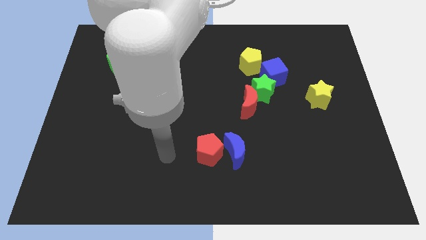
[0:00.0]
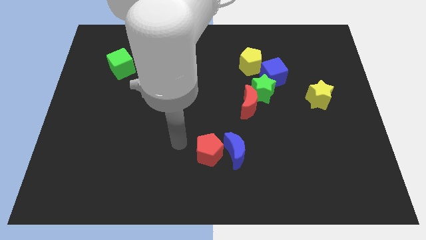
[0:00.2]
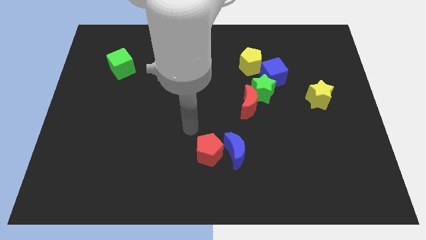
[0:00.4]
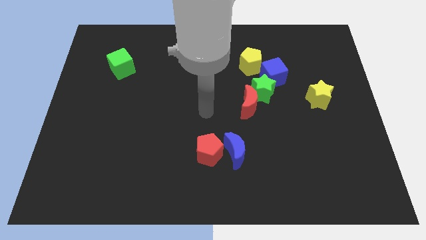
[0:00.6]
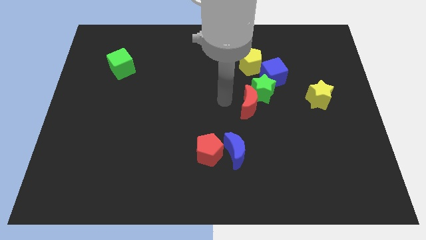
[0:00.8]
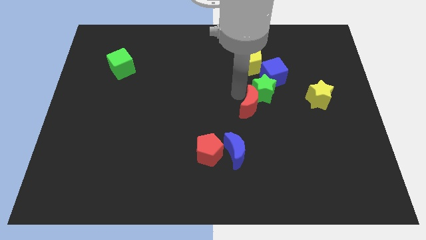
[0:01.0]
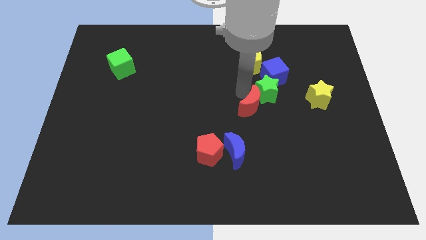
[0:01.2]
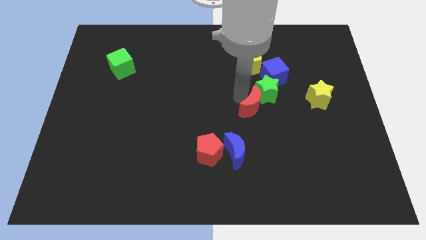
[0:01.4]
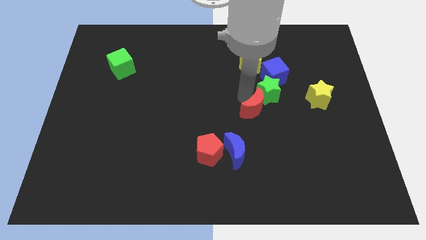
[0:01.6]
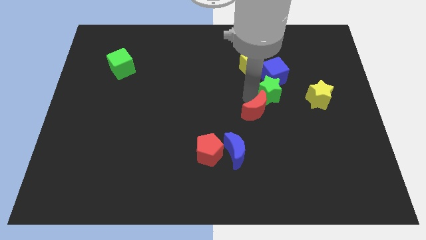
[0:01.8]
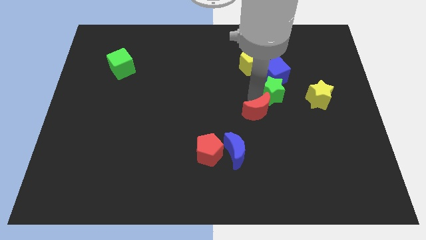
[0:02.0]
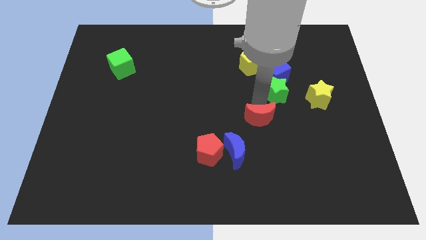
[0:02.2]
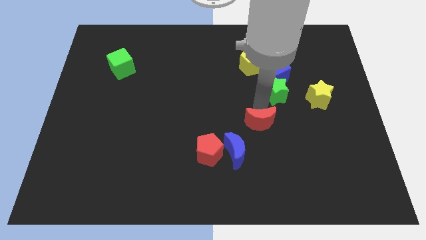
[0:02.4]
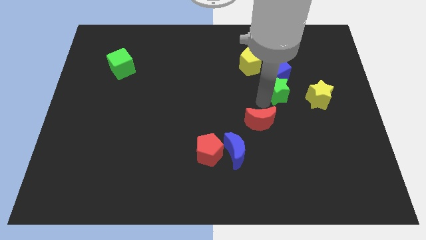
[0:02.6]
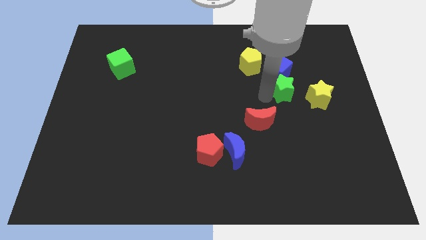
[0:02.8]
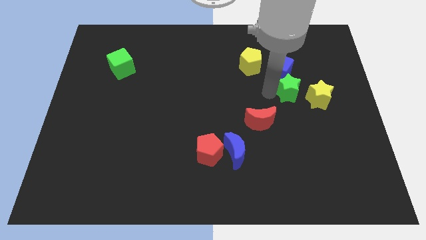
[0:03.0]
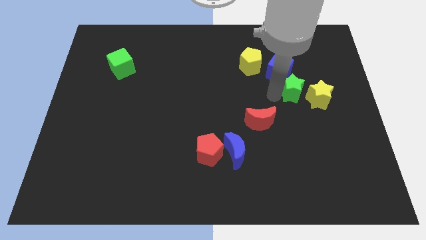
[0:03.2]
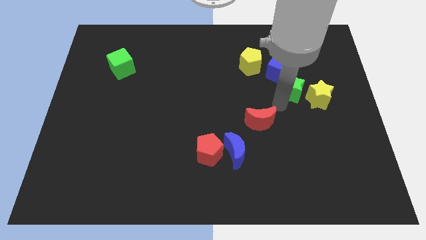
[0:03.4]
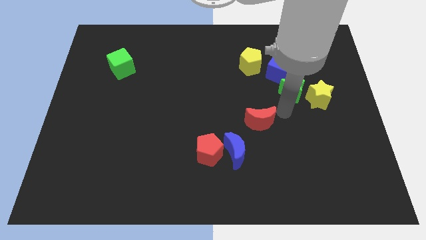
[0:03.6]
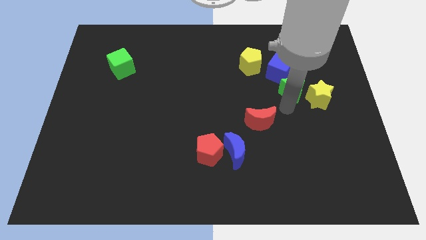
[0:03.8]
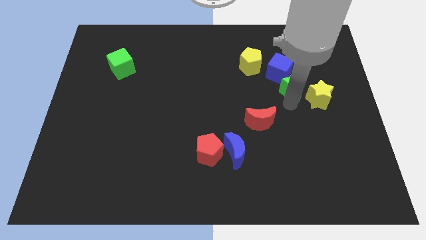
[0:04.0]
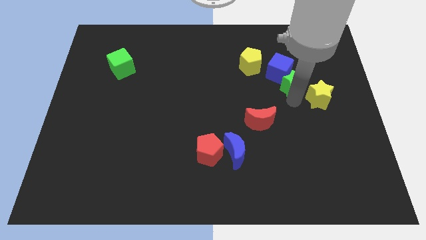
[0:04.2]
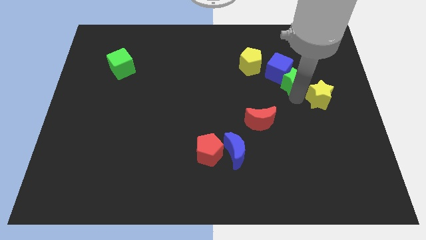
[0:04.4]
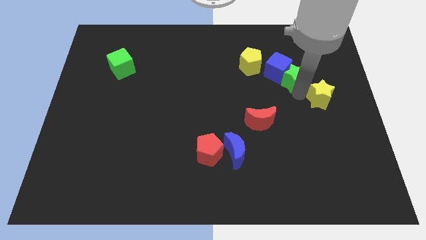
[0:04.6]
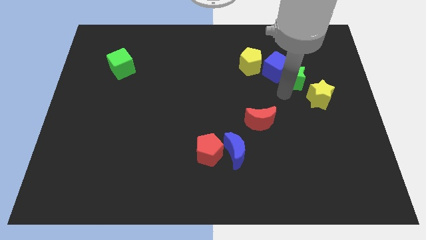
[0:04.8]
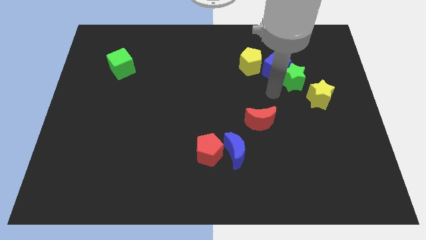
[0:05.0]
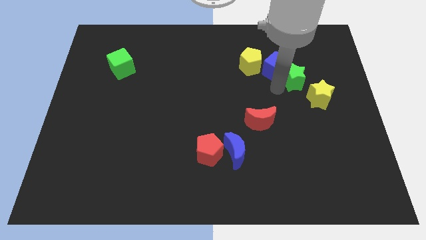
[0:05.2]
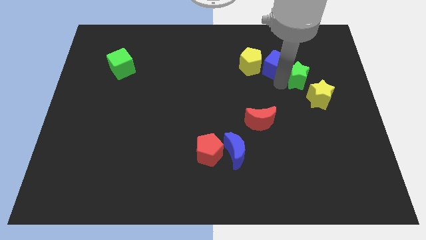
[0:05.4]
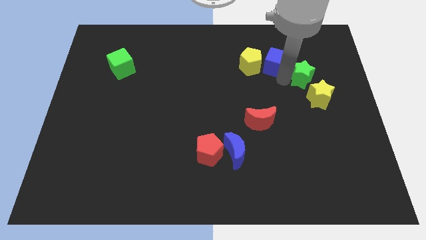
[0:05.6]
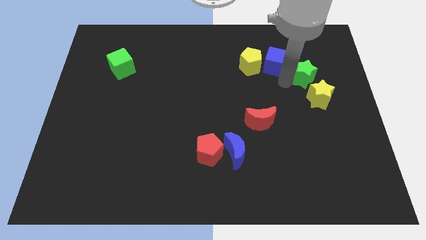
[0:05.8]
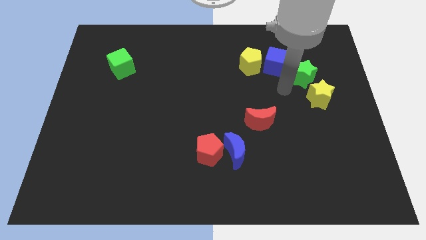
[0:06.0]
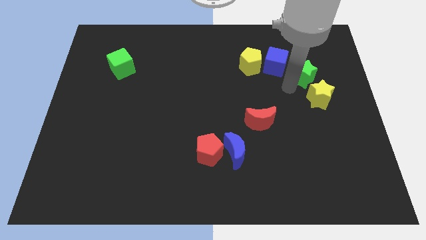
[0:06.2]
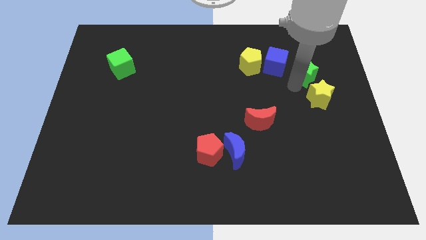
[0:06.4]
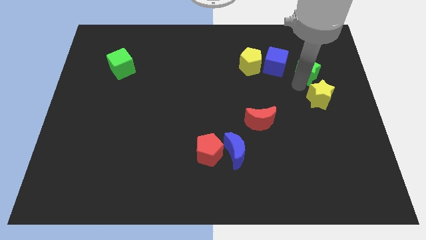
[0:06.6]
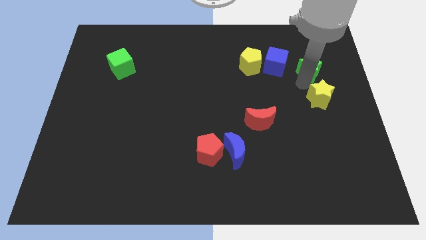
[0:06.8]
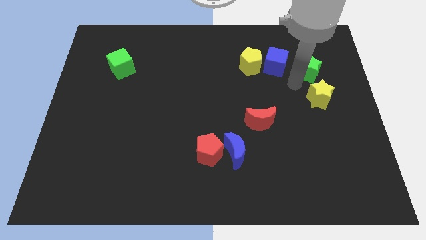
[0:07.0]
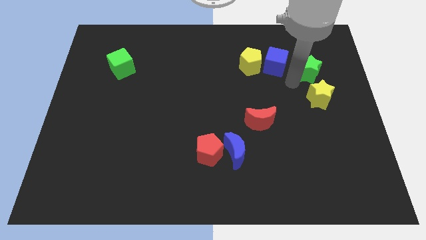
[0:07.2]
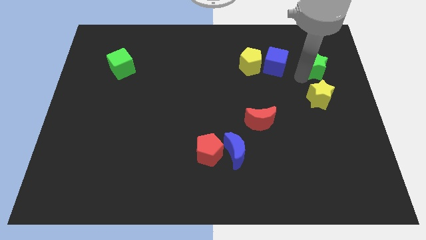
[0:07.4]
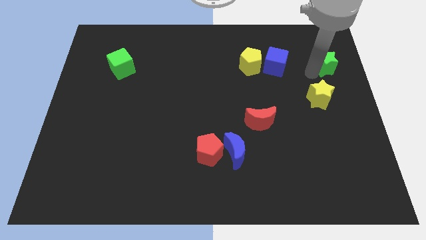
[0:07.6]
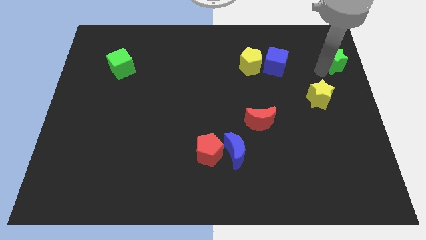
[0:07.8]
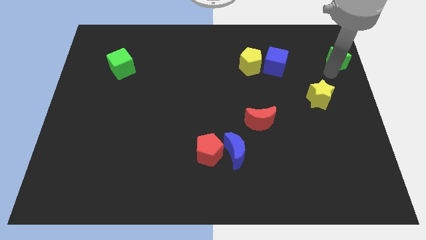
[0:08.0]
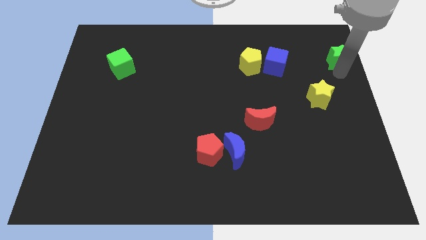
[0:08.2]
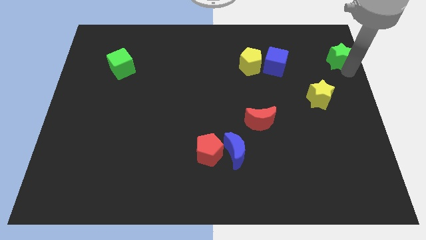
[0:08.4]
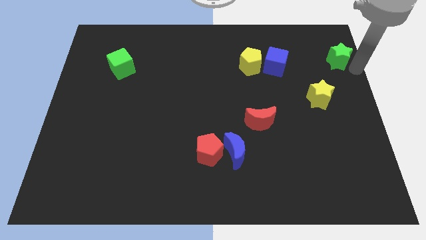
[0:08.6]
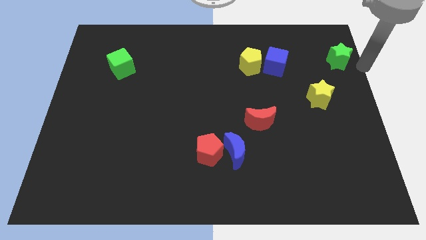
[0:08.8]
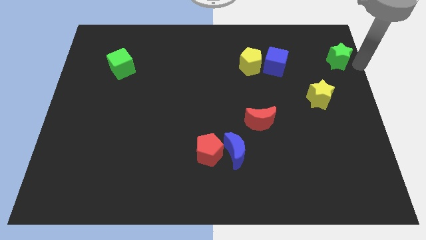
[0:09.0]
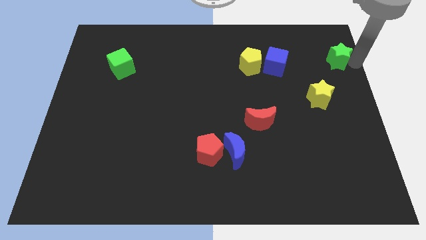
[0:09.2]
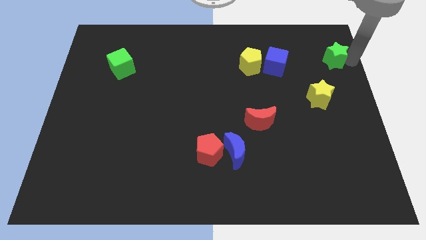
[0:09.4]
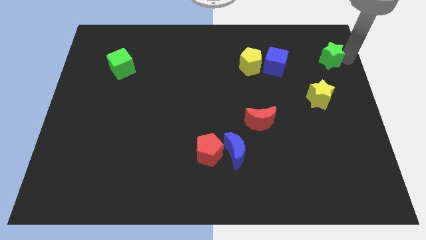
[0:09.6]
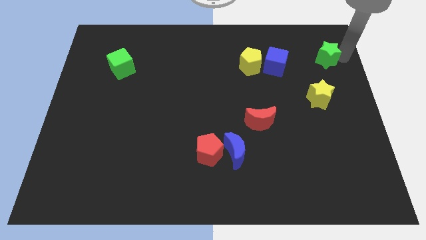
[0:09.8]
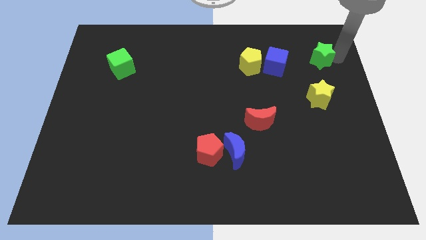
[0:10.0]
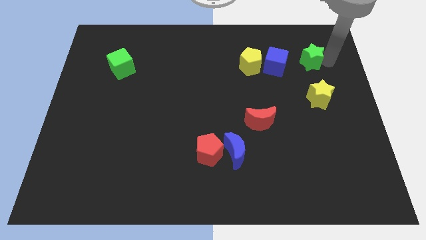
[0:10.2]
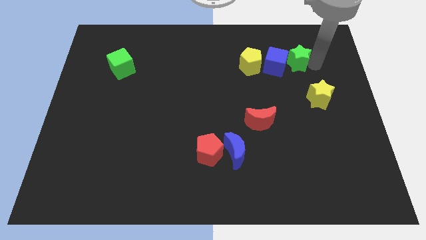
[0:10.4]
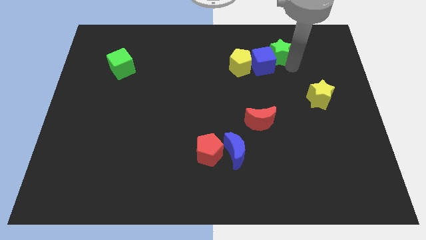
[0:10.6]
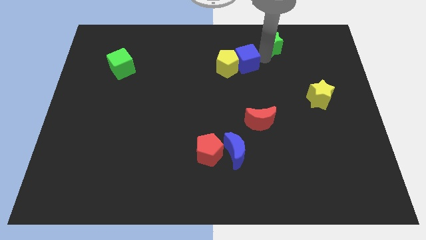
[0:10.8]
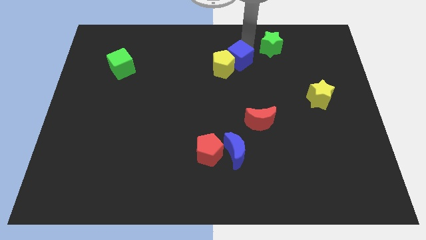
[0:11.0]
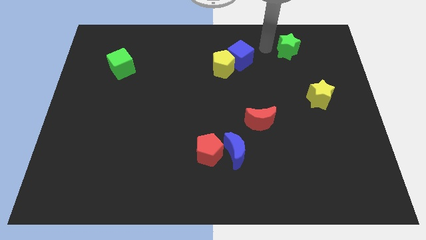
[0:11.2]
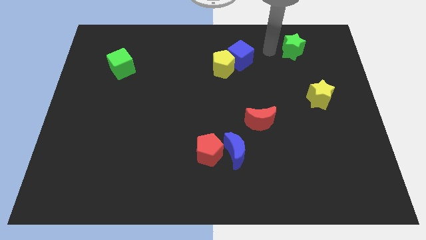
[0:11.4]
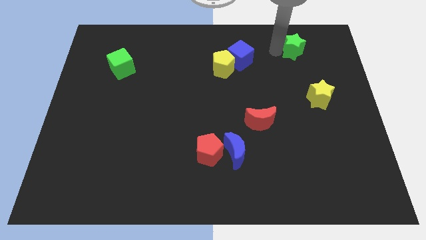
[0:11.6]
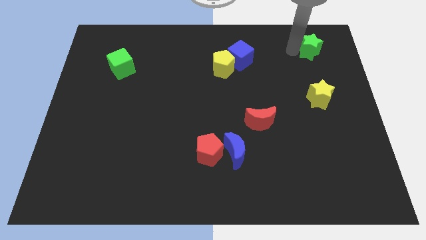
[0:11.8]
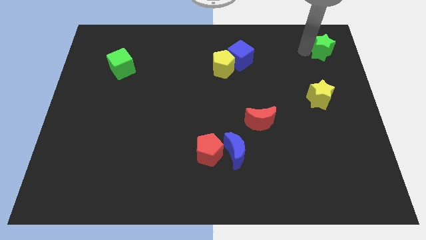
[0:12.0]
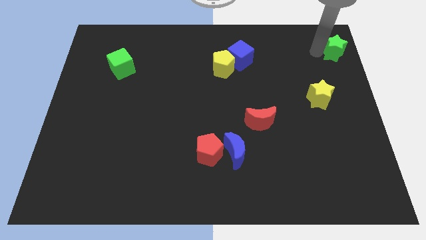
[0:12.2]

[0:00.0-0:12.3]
push the green star to the top right corner
